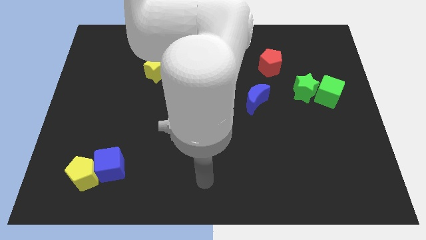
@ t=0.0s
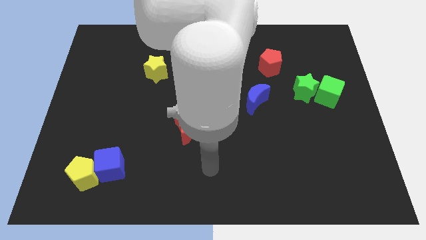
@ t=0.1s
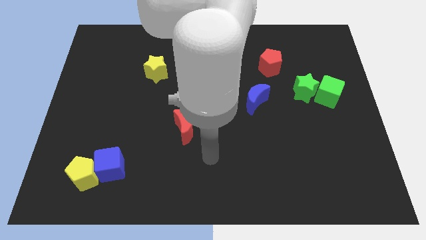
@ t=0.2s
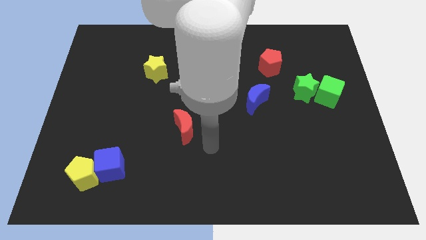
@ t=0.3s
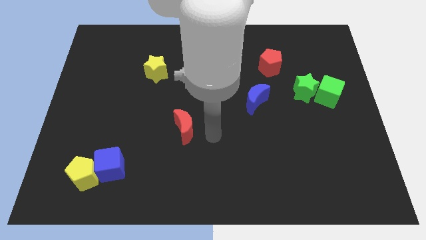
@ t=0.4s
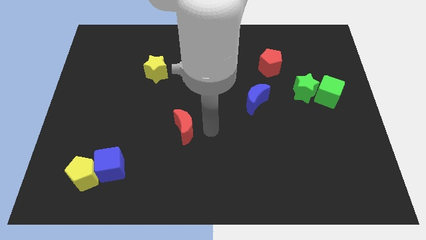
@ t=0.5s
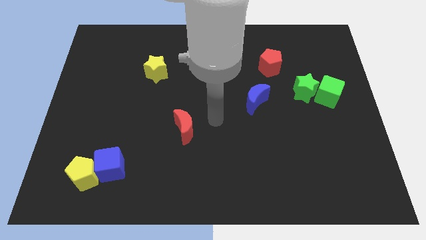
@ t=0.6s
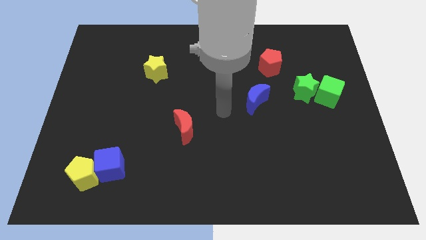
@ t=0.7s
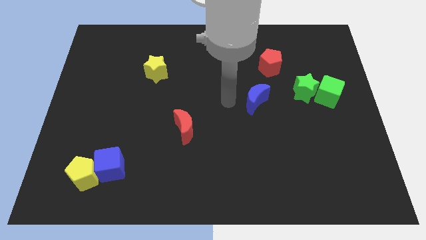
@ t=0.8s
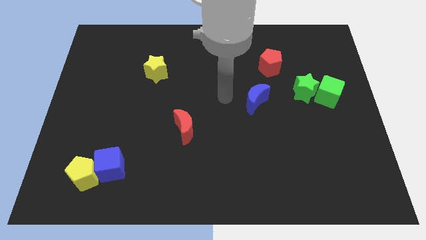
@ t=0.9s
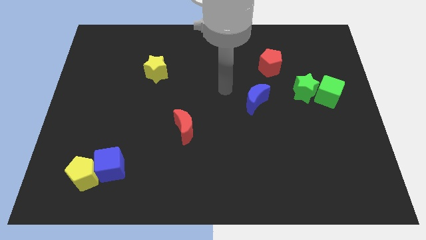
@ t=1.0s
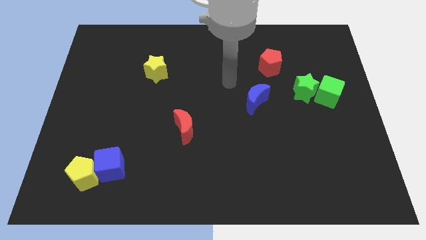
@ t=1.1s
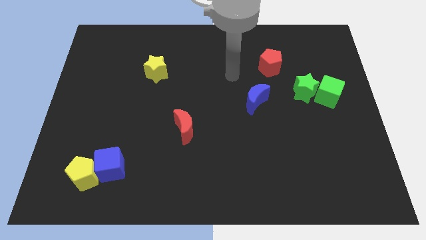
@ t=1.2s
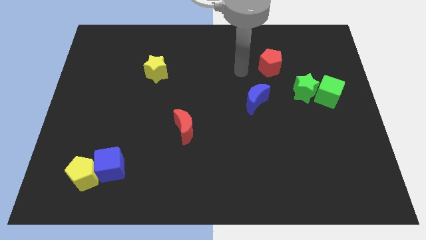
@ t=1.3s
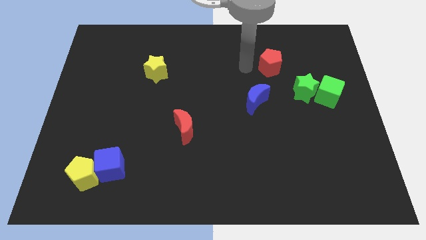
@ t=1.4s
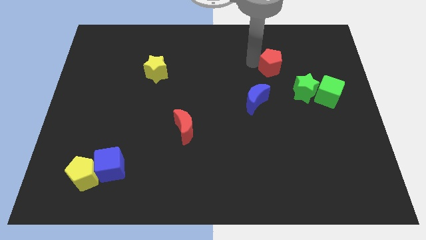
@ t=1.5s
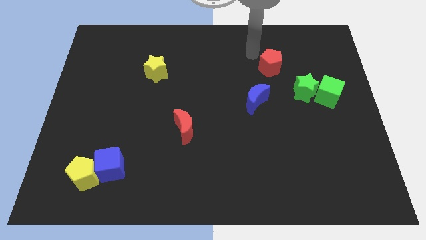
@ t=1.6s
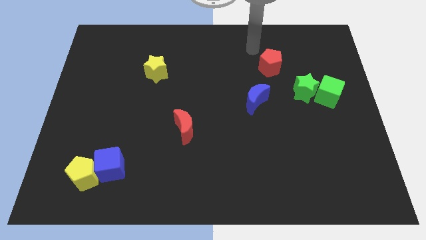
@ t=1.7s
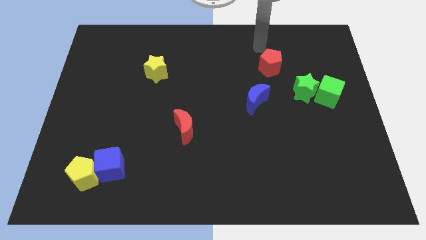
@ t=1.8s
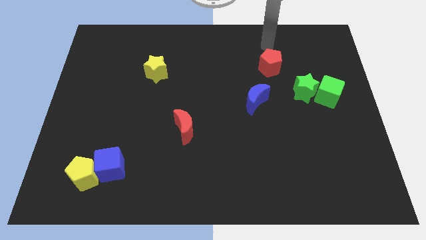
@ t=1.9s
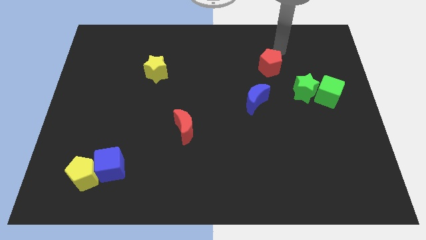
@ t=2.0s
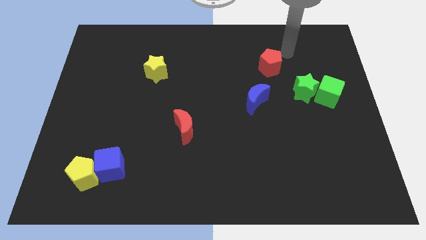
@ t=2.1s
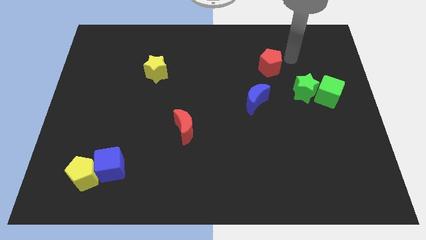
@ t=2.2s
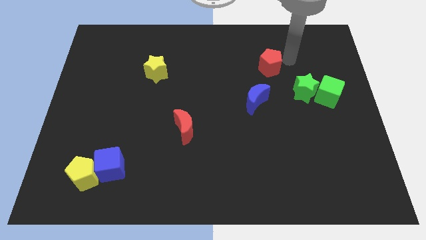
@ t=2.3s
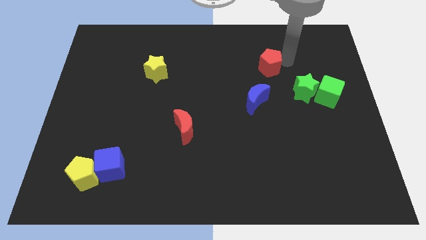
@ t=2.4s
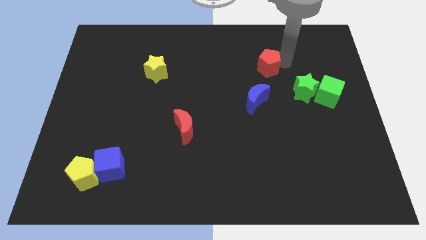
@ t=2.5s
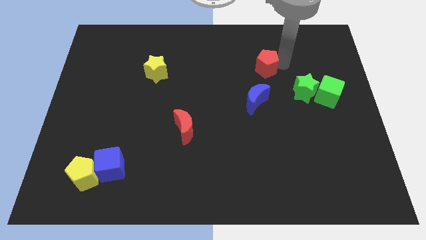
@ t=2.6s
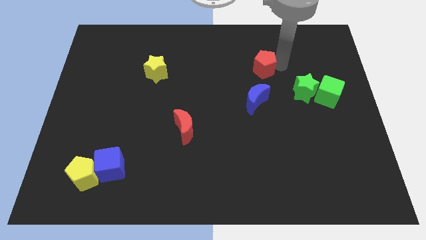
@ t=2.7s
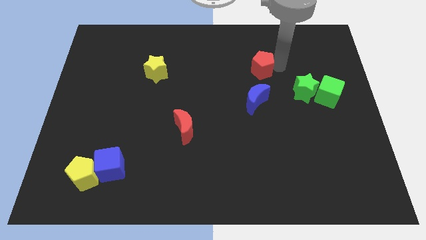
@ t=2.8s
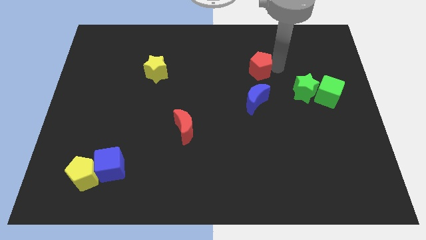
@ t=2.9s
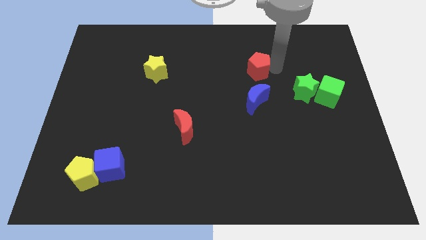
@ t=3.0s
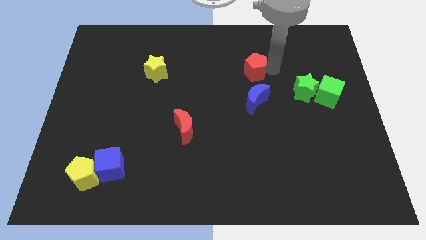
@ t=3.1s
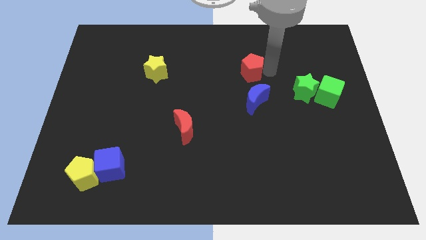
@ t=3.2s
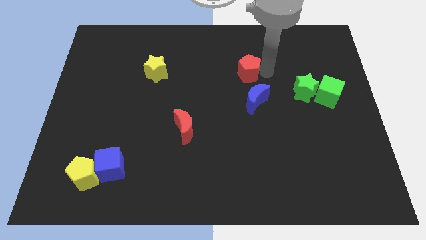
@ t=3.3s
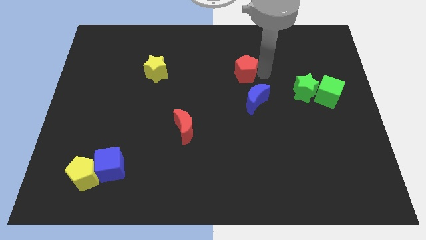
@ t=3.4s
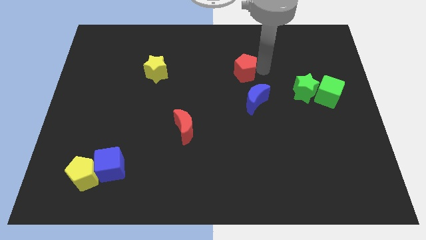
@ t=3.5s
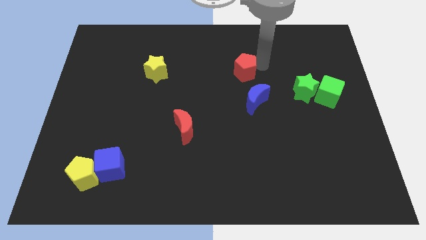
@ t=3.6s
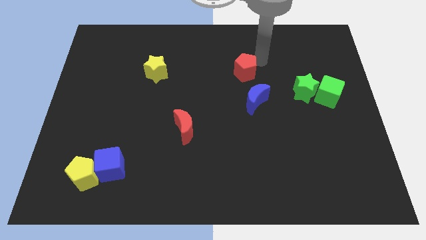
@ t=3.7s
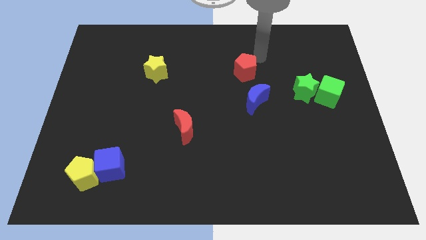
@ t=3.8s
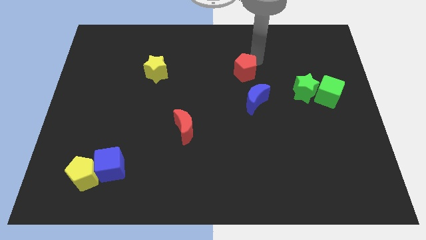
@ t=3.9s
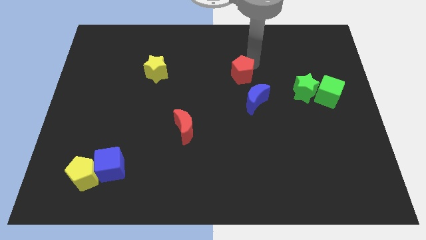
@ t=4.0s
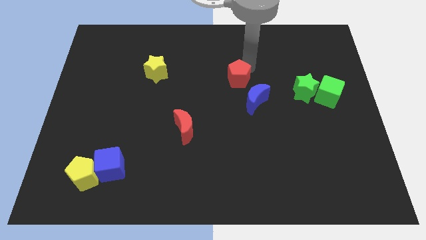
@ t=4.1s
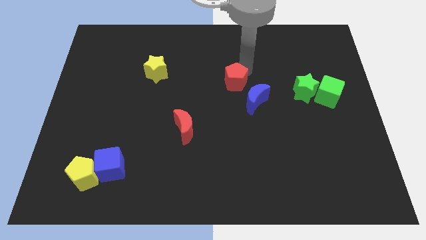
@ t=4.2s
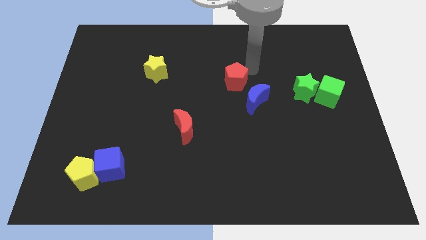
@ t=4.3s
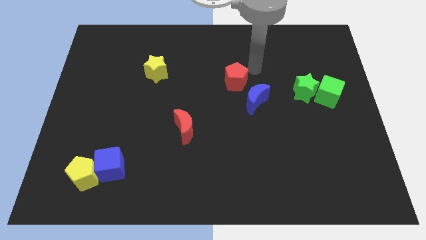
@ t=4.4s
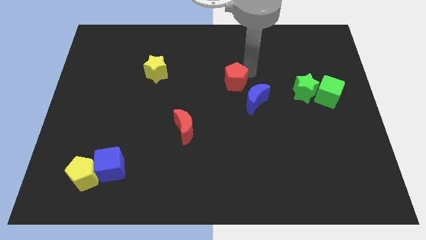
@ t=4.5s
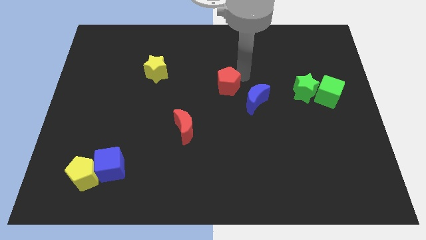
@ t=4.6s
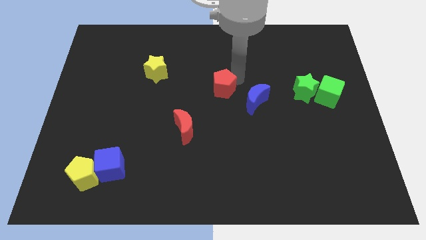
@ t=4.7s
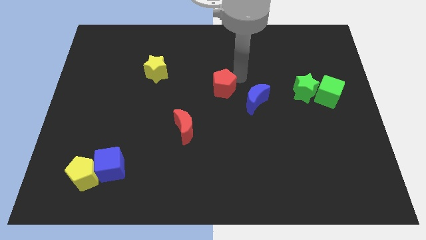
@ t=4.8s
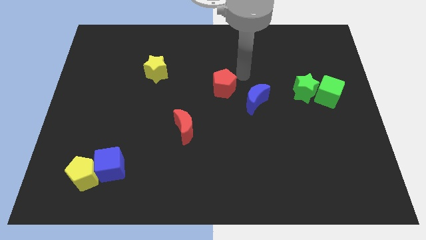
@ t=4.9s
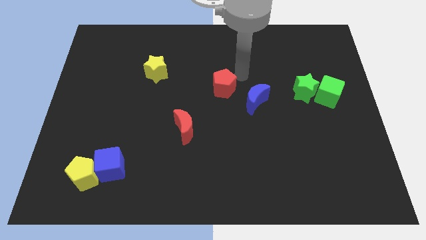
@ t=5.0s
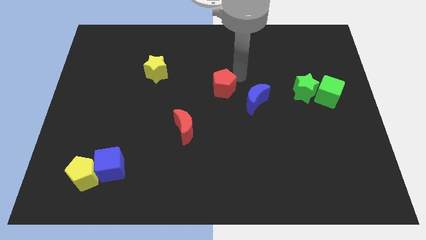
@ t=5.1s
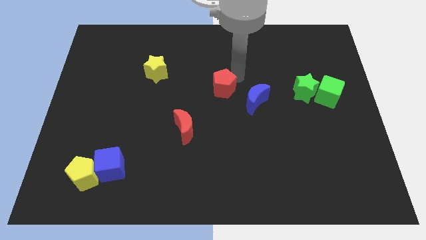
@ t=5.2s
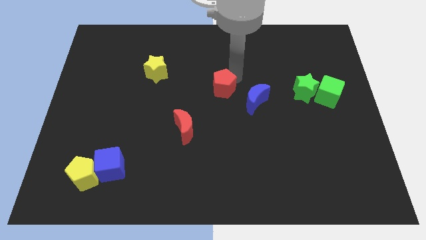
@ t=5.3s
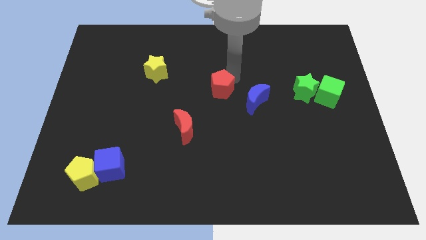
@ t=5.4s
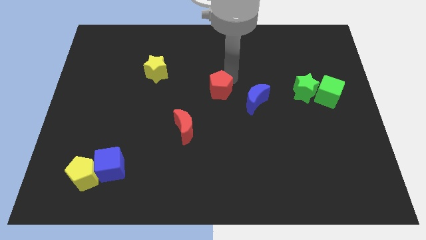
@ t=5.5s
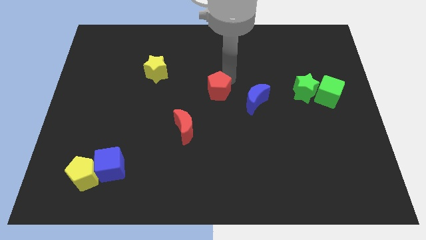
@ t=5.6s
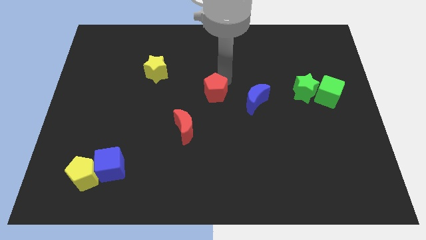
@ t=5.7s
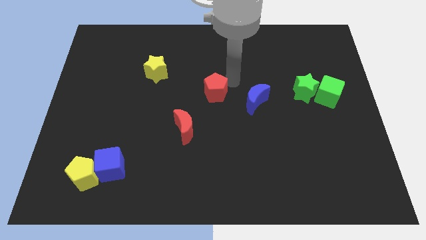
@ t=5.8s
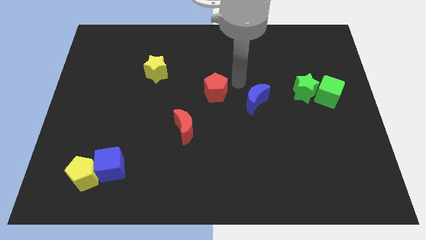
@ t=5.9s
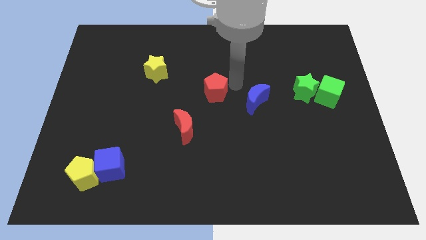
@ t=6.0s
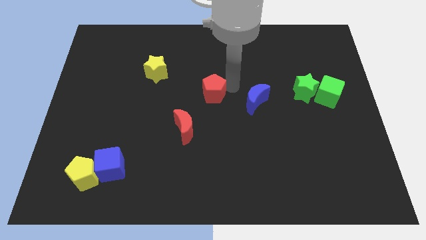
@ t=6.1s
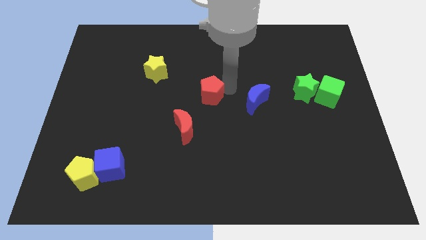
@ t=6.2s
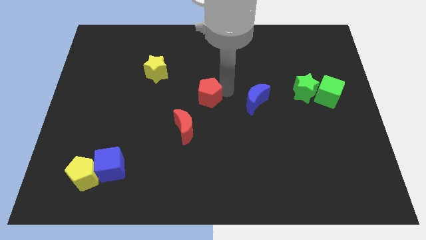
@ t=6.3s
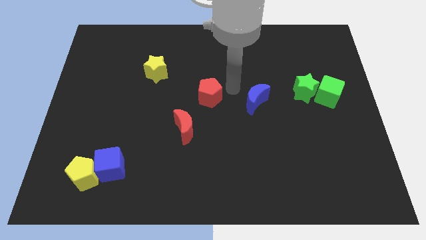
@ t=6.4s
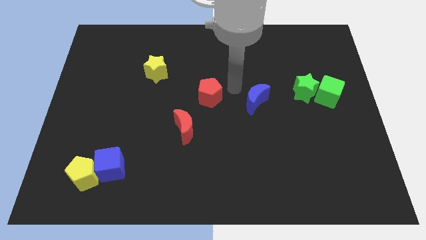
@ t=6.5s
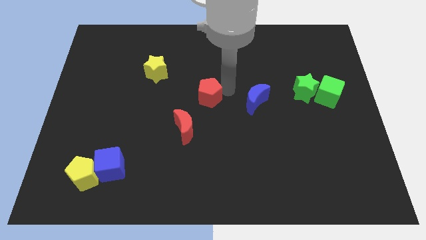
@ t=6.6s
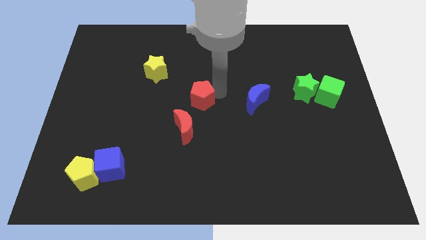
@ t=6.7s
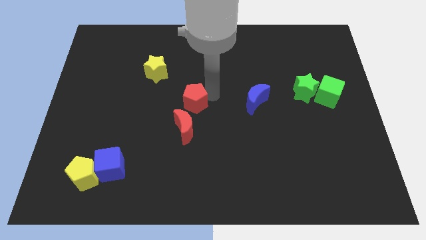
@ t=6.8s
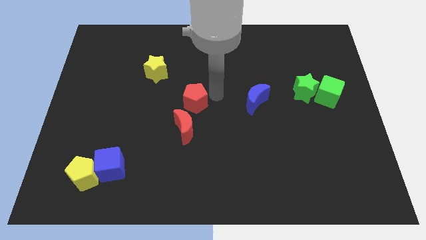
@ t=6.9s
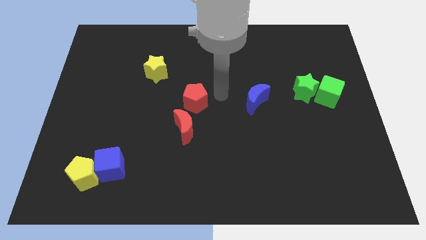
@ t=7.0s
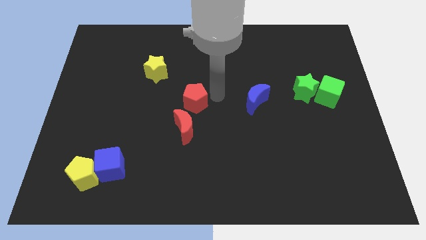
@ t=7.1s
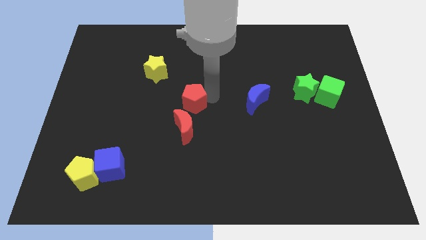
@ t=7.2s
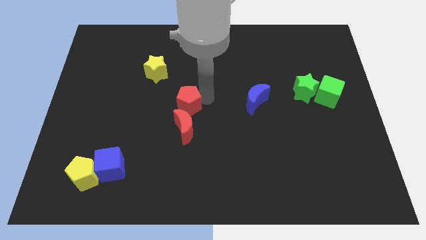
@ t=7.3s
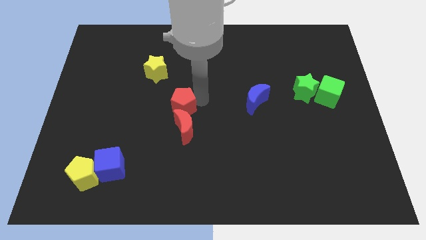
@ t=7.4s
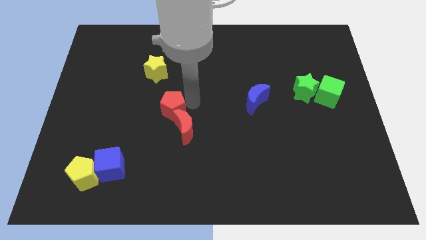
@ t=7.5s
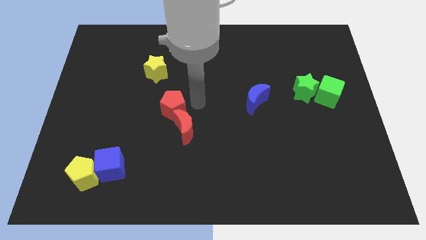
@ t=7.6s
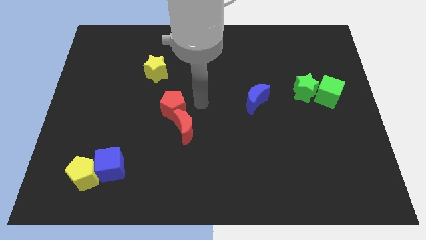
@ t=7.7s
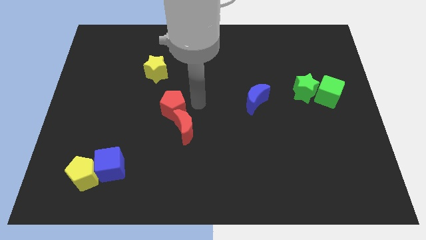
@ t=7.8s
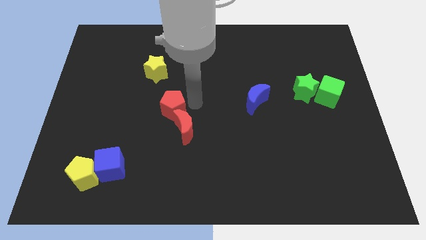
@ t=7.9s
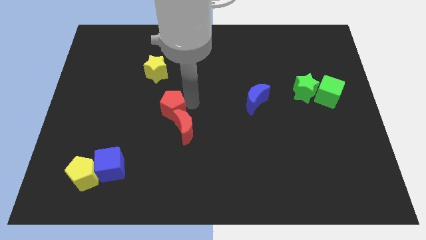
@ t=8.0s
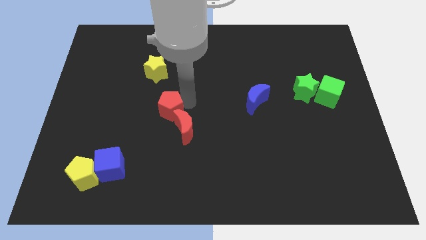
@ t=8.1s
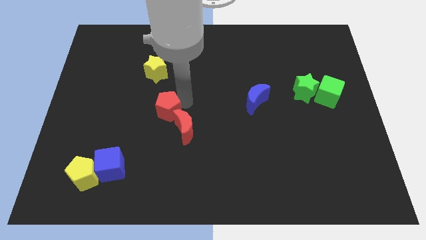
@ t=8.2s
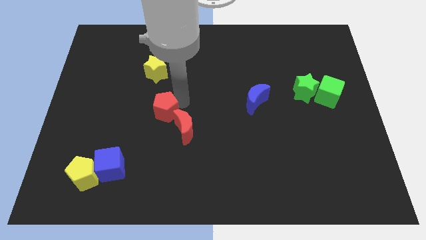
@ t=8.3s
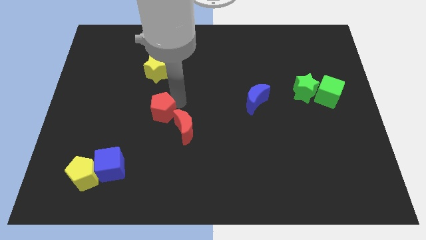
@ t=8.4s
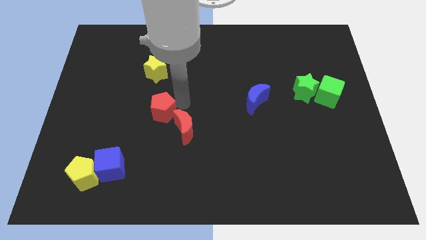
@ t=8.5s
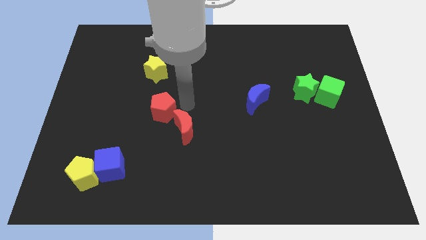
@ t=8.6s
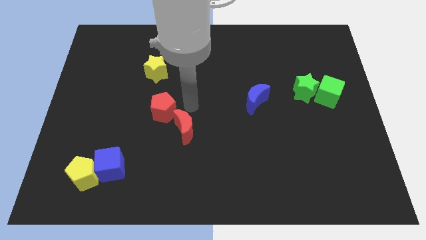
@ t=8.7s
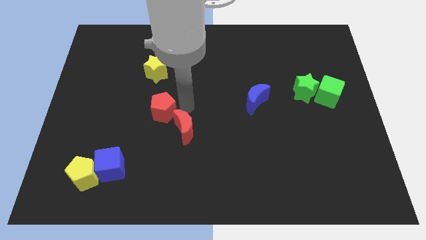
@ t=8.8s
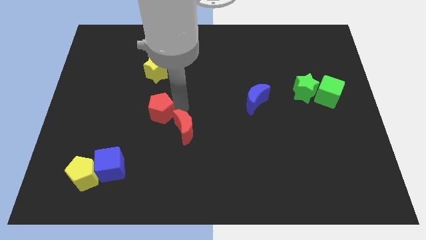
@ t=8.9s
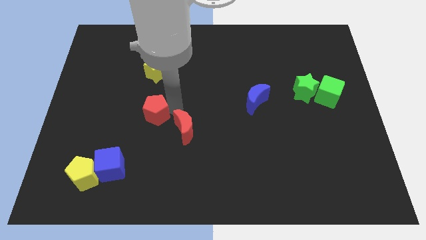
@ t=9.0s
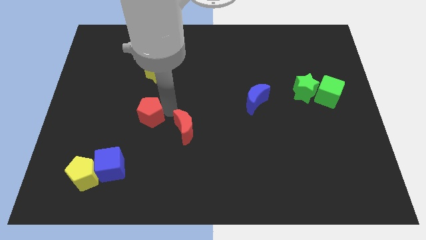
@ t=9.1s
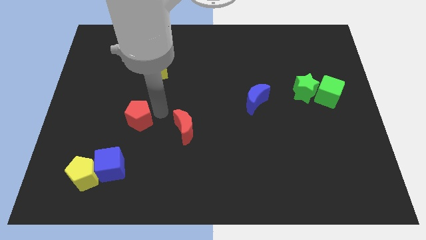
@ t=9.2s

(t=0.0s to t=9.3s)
put the red pentagon to the top side of the blue cube
